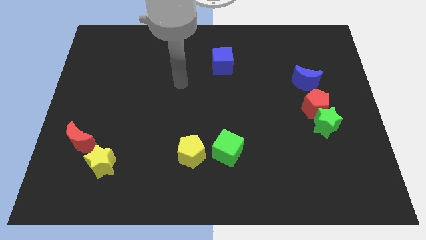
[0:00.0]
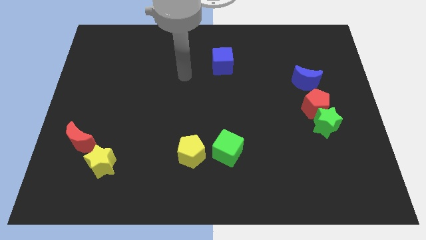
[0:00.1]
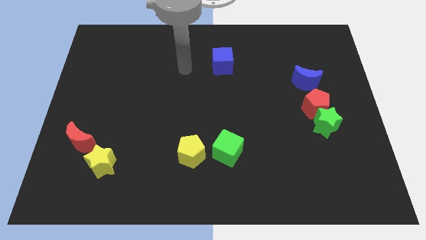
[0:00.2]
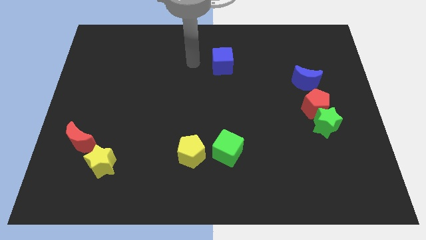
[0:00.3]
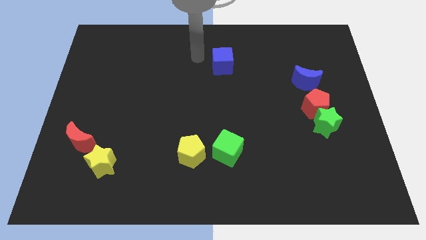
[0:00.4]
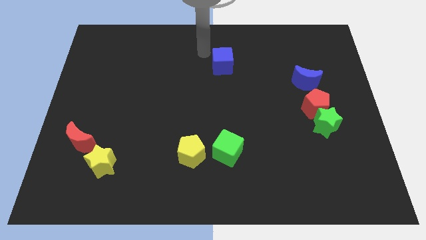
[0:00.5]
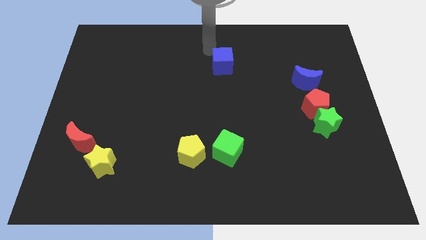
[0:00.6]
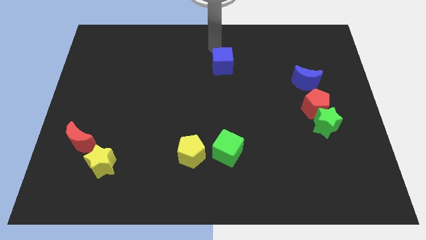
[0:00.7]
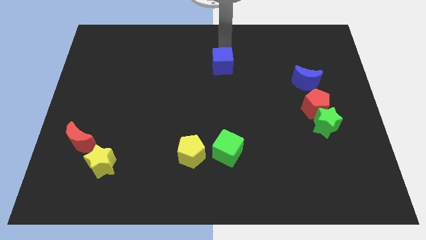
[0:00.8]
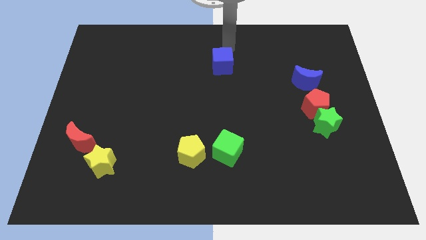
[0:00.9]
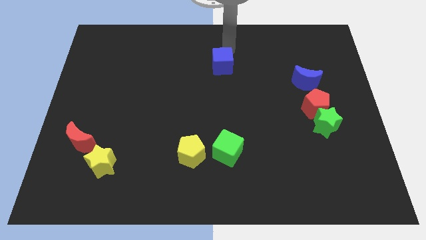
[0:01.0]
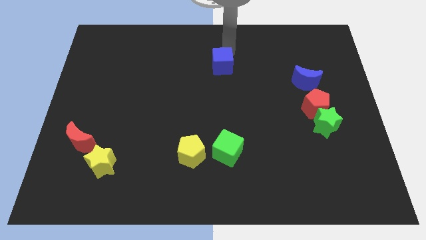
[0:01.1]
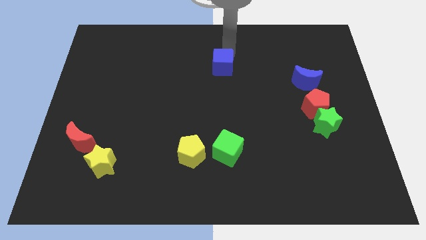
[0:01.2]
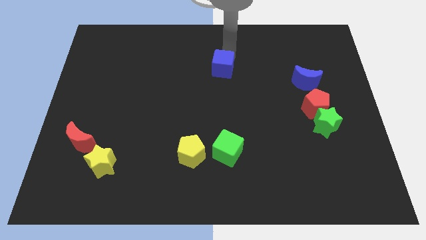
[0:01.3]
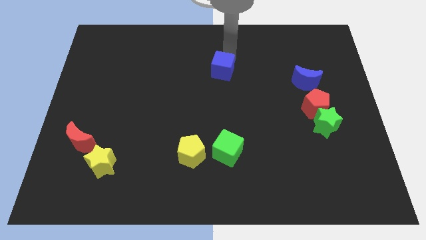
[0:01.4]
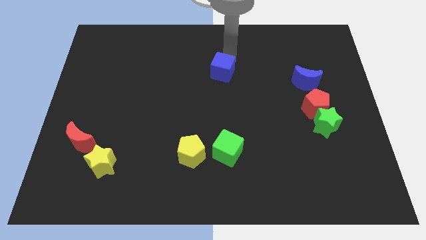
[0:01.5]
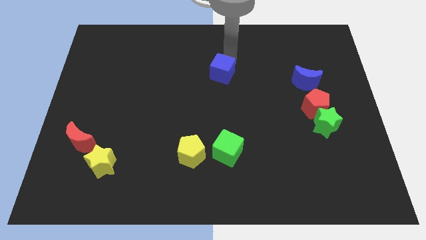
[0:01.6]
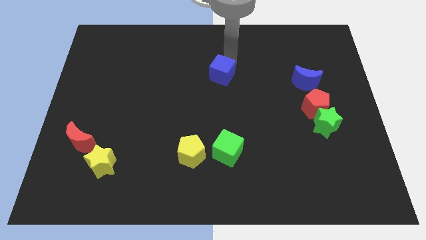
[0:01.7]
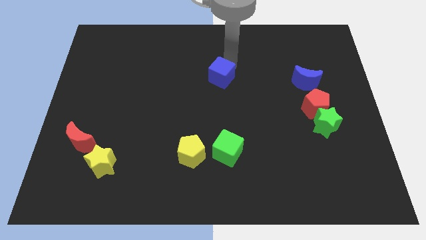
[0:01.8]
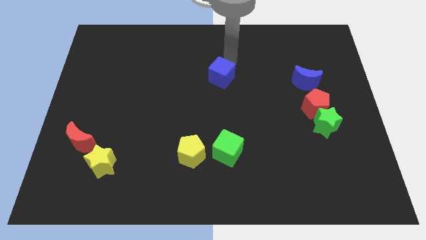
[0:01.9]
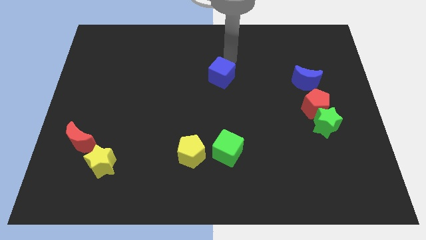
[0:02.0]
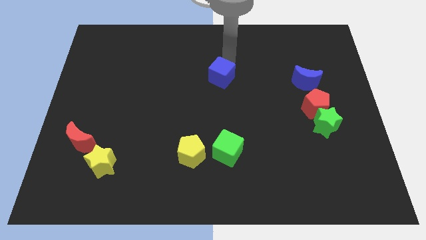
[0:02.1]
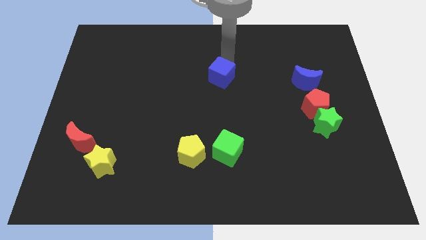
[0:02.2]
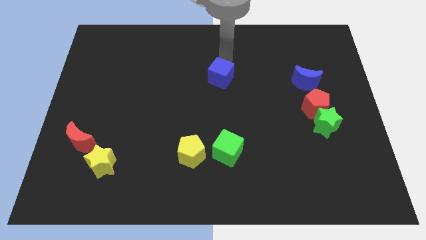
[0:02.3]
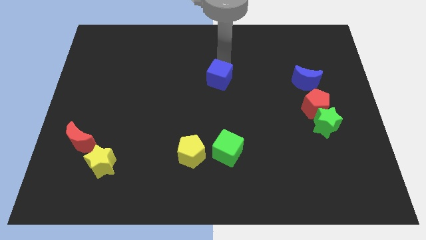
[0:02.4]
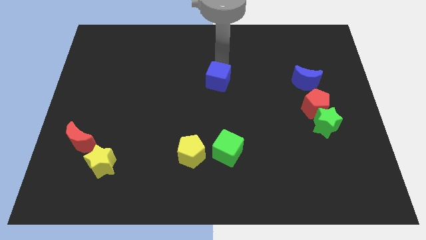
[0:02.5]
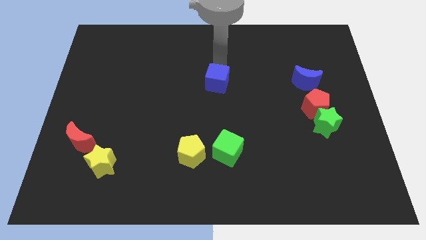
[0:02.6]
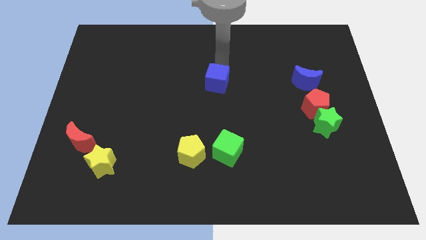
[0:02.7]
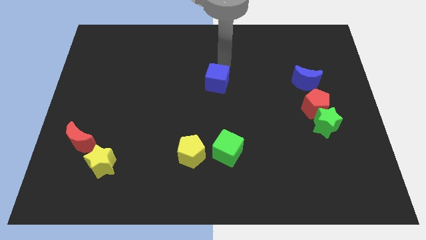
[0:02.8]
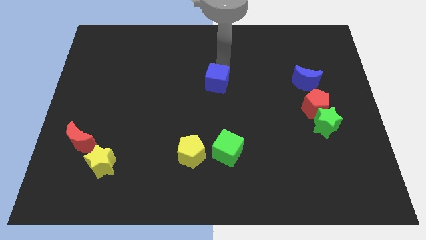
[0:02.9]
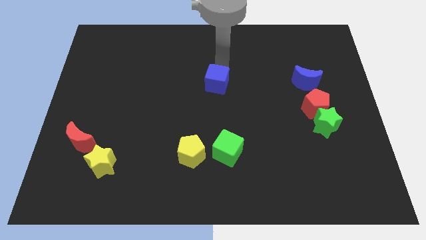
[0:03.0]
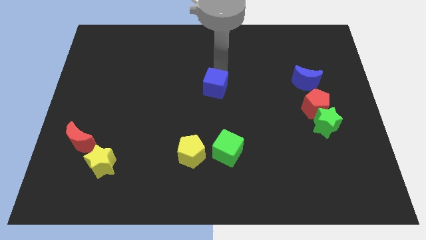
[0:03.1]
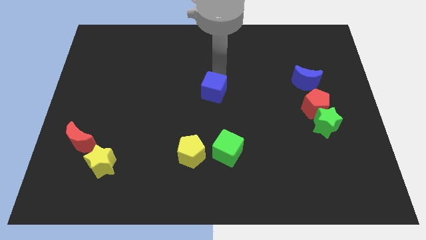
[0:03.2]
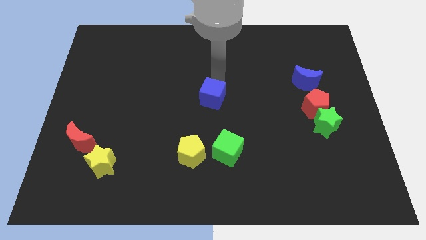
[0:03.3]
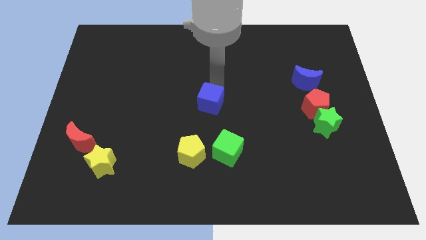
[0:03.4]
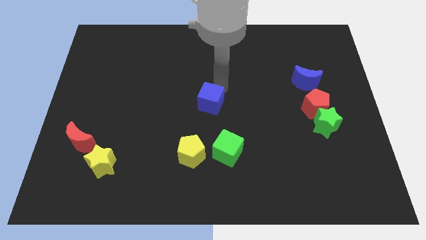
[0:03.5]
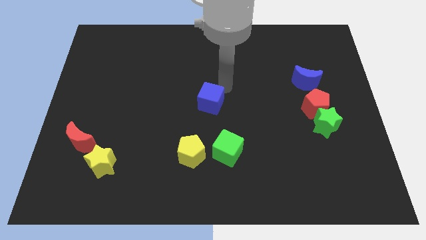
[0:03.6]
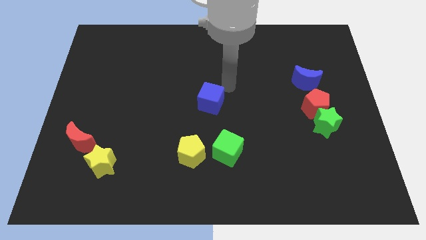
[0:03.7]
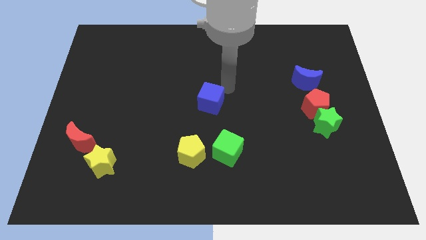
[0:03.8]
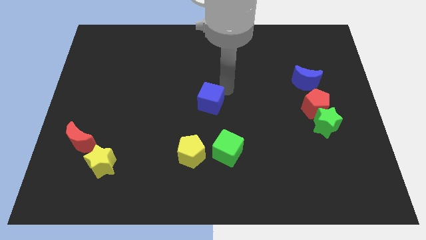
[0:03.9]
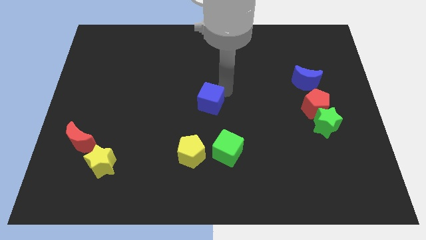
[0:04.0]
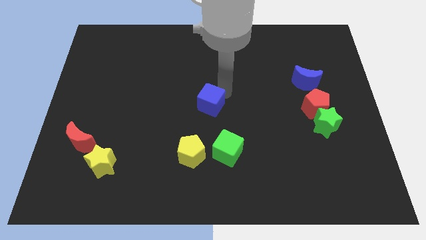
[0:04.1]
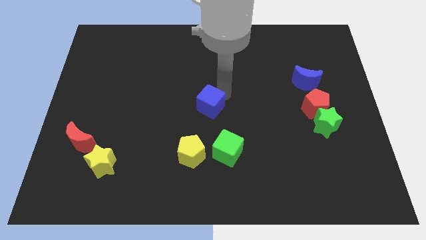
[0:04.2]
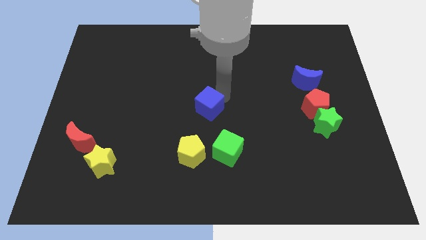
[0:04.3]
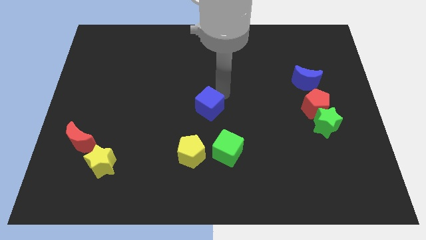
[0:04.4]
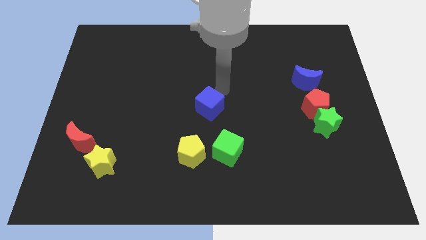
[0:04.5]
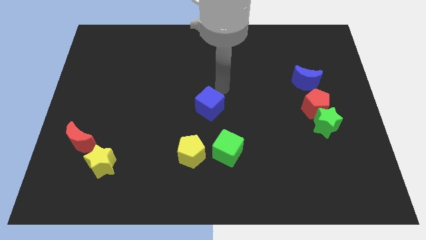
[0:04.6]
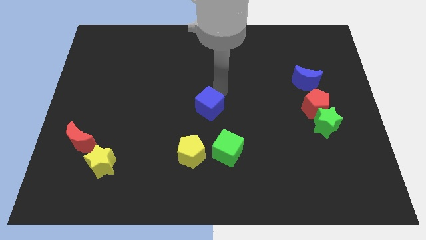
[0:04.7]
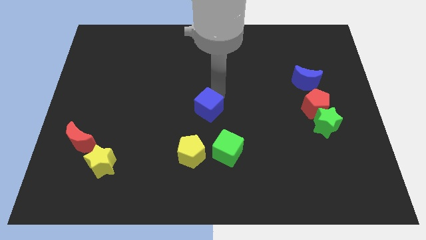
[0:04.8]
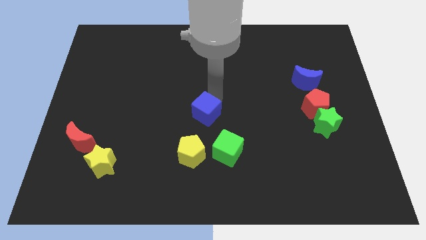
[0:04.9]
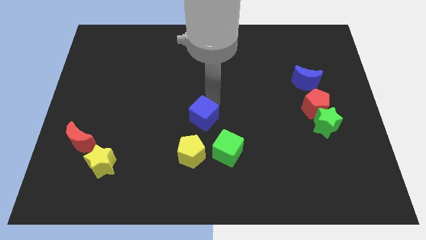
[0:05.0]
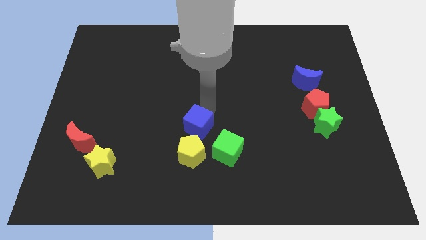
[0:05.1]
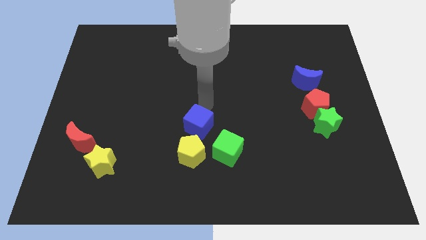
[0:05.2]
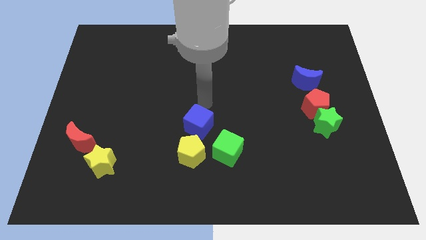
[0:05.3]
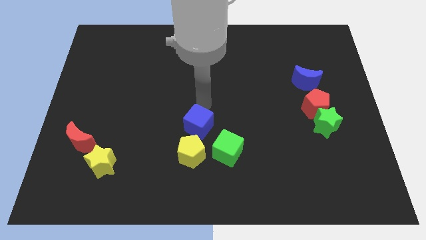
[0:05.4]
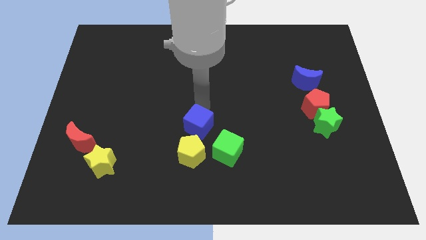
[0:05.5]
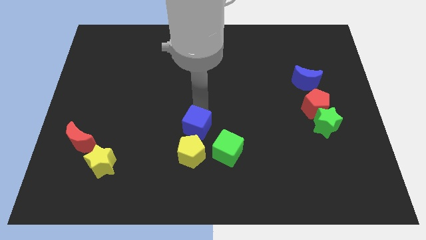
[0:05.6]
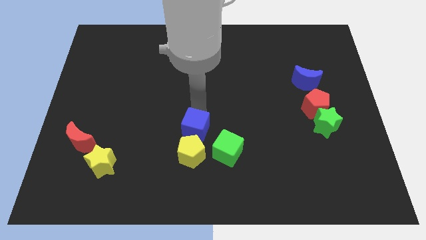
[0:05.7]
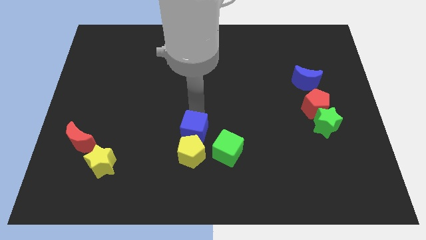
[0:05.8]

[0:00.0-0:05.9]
move the blue cube to the yellow pentagon

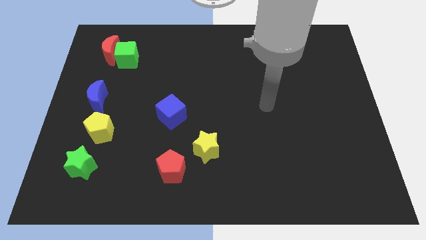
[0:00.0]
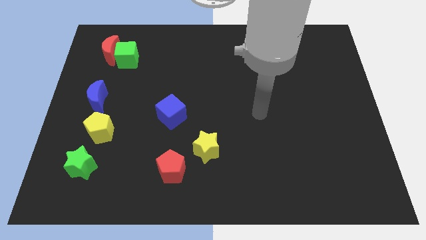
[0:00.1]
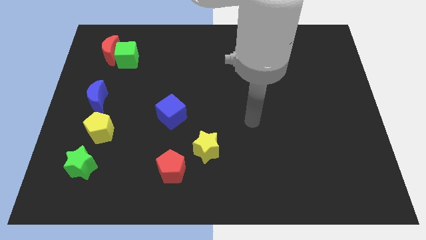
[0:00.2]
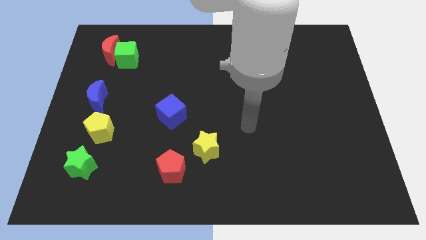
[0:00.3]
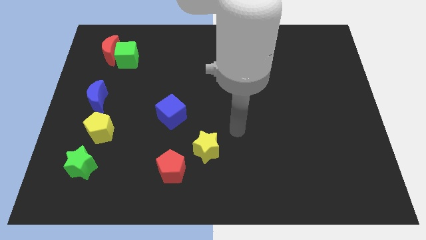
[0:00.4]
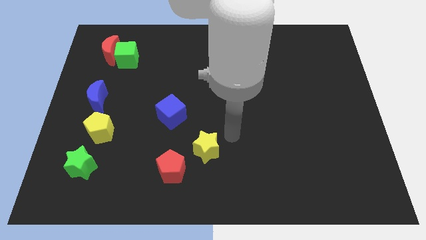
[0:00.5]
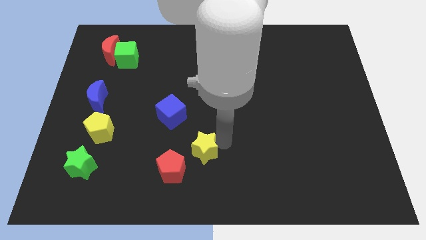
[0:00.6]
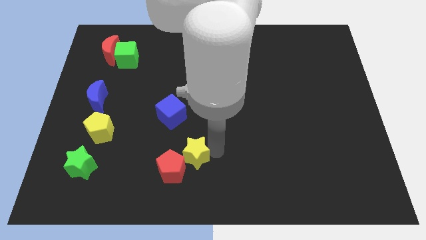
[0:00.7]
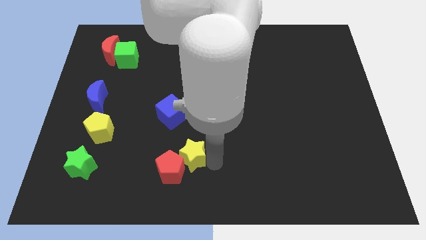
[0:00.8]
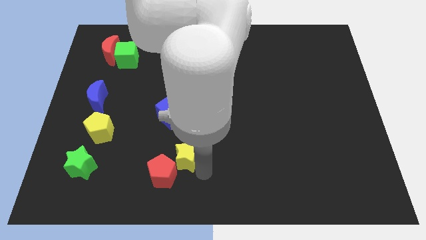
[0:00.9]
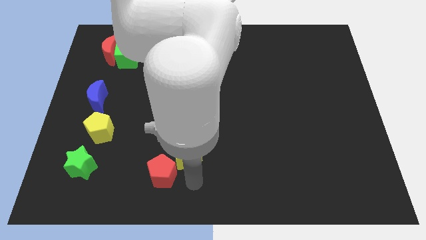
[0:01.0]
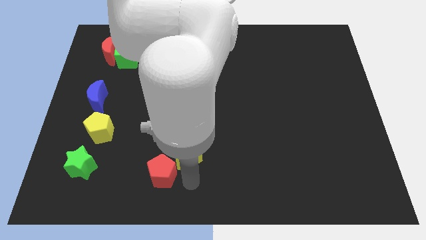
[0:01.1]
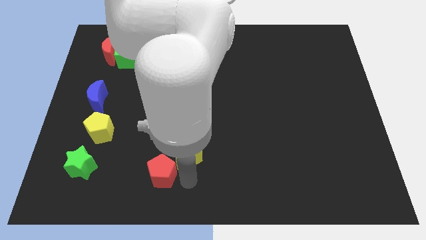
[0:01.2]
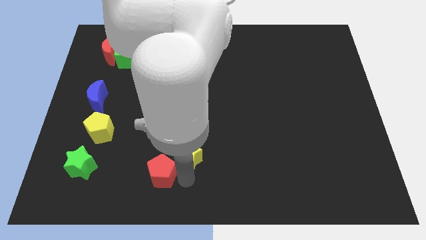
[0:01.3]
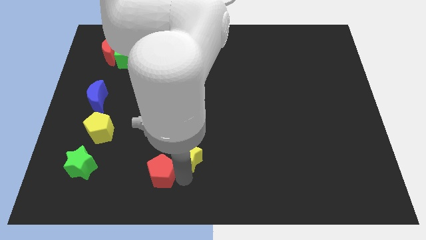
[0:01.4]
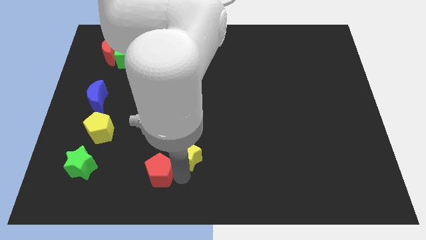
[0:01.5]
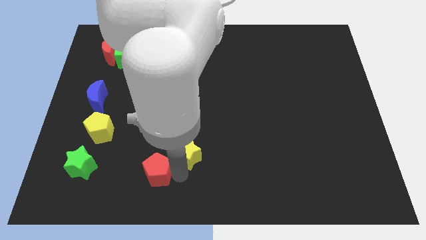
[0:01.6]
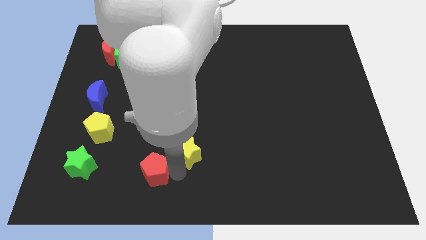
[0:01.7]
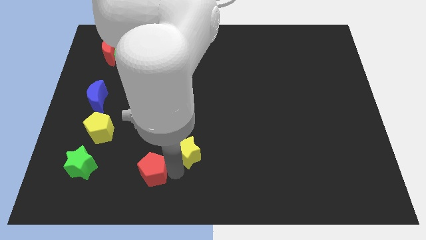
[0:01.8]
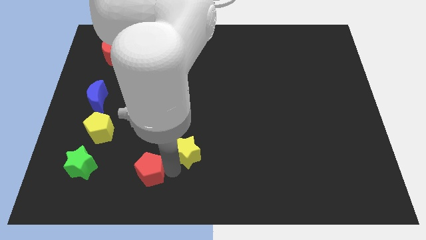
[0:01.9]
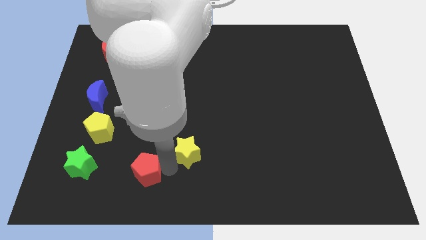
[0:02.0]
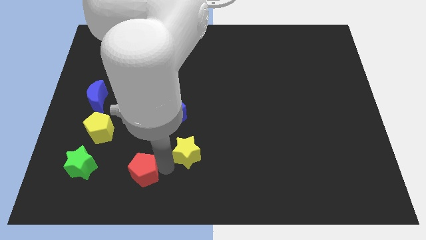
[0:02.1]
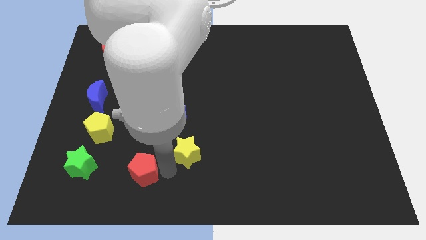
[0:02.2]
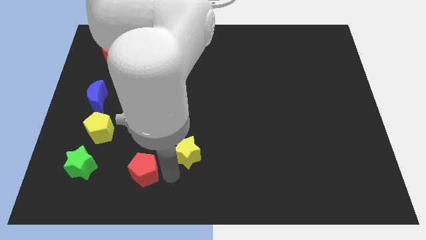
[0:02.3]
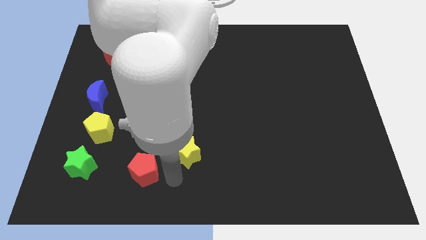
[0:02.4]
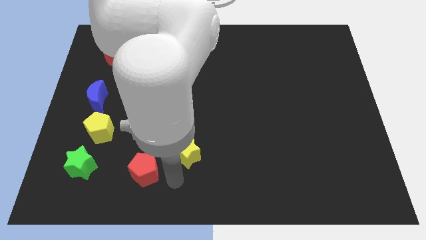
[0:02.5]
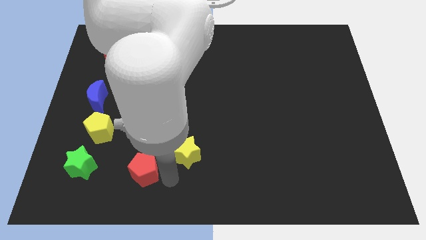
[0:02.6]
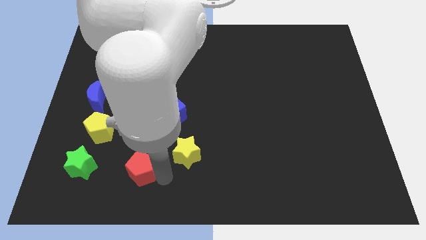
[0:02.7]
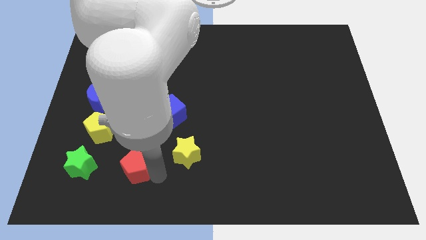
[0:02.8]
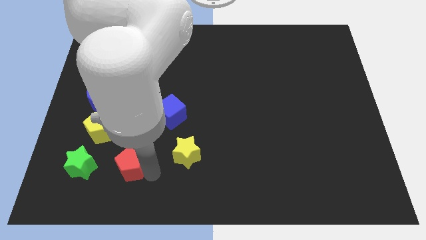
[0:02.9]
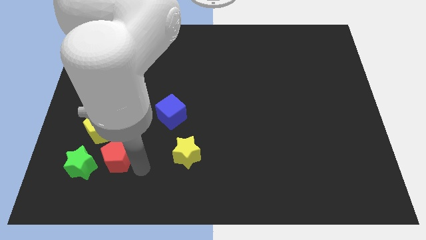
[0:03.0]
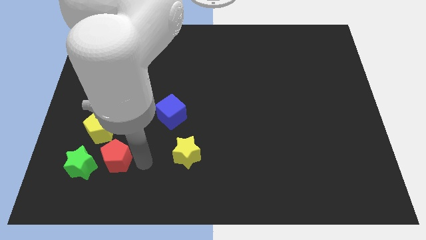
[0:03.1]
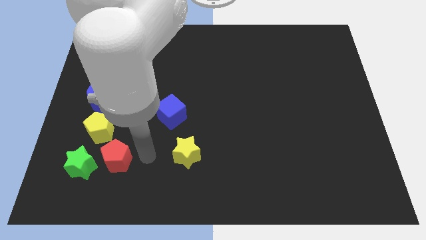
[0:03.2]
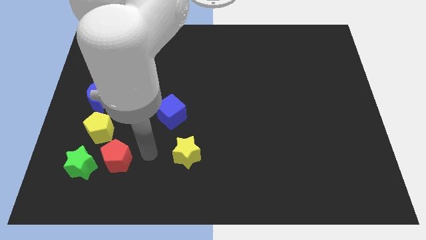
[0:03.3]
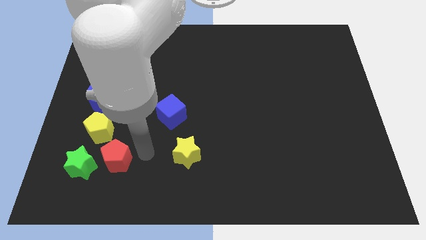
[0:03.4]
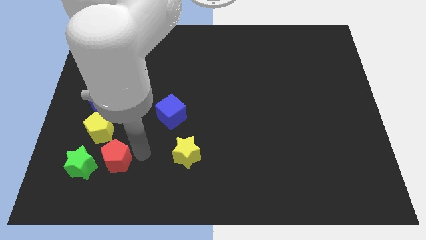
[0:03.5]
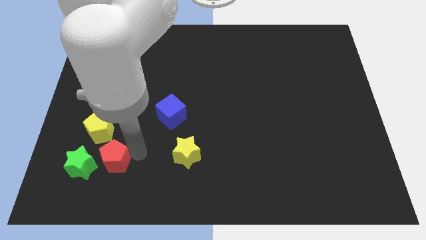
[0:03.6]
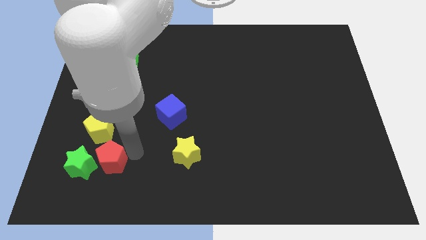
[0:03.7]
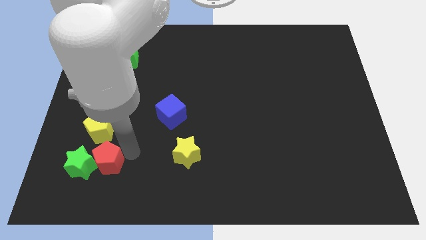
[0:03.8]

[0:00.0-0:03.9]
put the red pentagon to the green star
